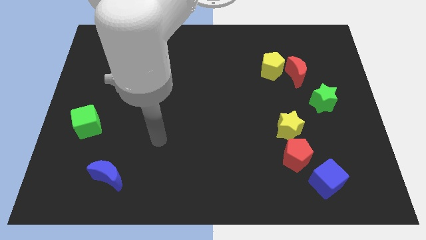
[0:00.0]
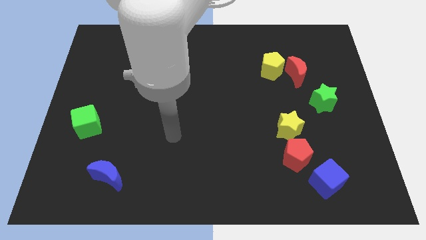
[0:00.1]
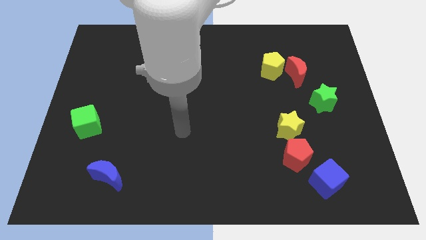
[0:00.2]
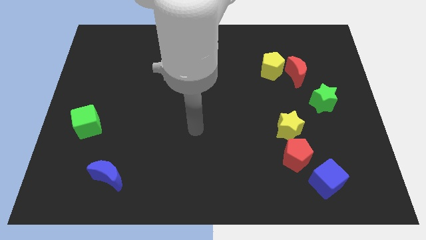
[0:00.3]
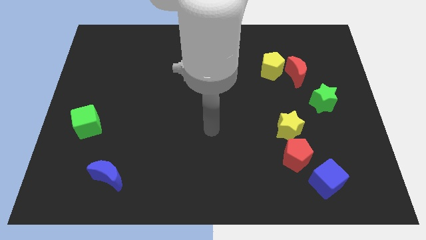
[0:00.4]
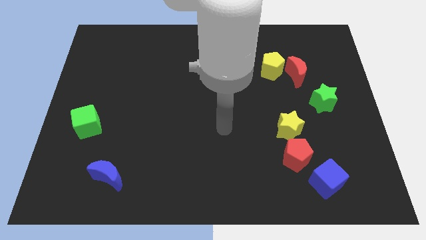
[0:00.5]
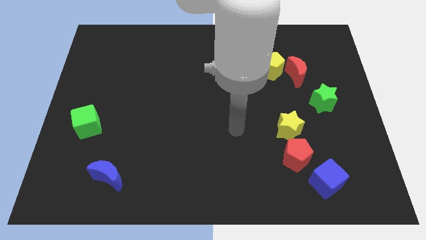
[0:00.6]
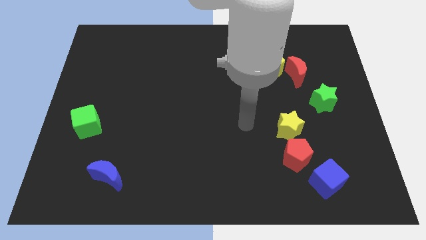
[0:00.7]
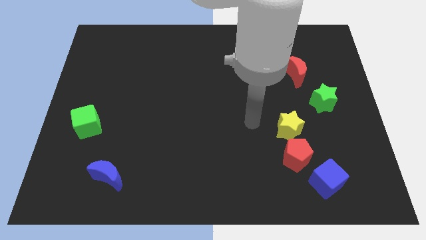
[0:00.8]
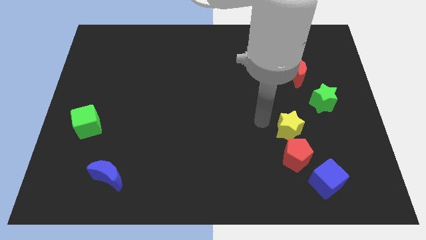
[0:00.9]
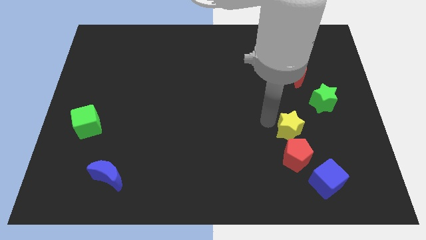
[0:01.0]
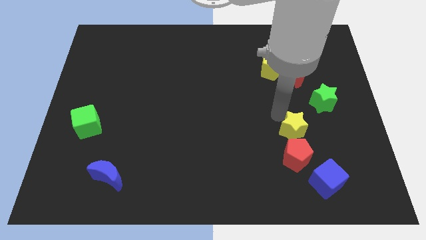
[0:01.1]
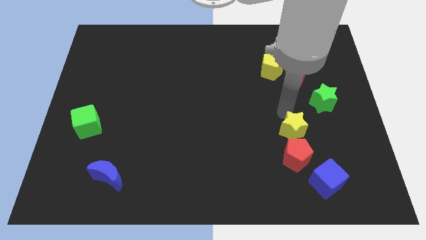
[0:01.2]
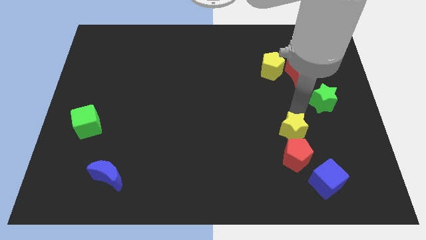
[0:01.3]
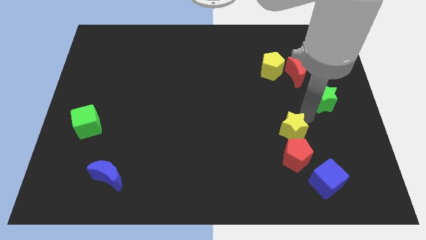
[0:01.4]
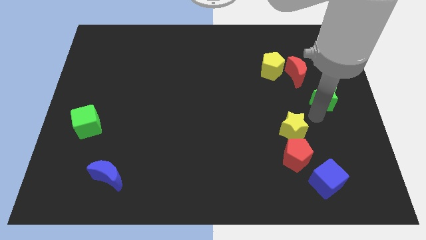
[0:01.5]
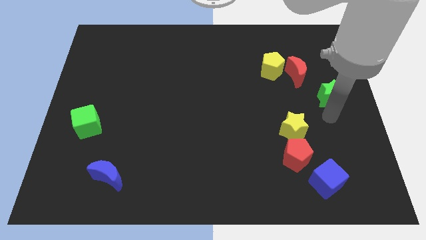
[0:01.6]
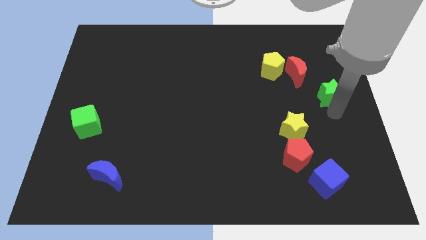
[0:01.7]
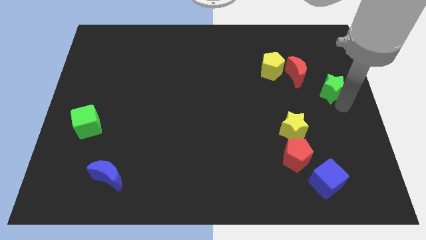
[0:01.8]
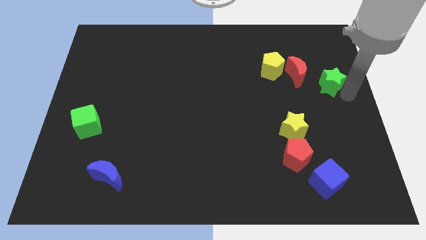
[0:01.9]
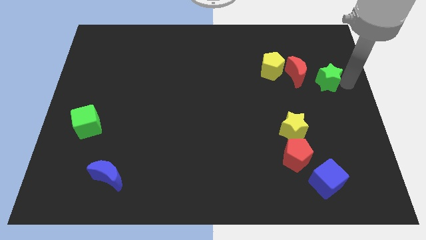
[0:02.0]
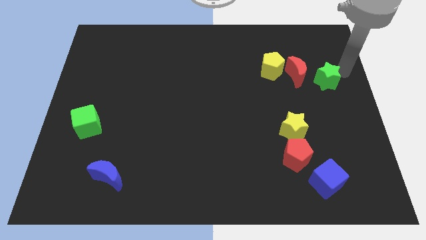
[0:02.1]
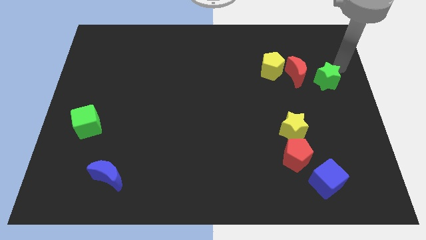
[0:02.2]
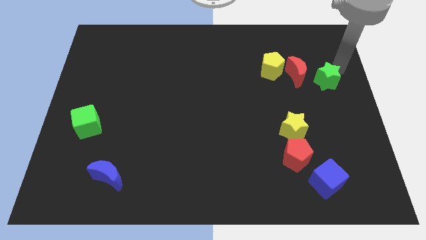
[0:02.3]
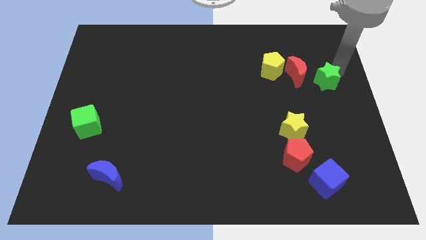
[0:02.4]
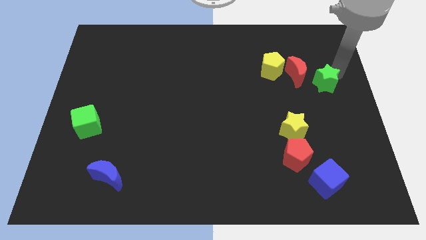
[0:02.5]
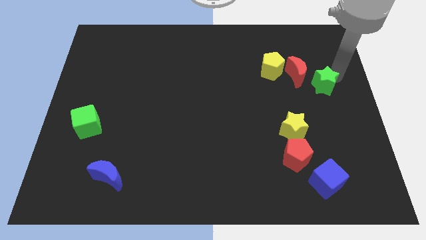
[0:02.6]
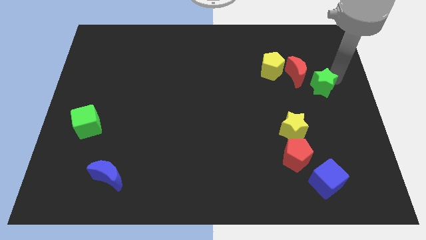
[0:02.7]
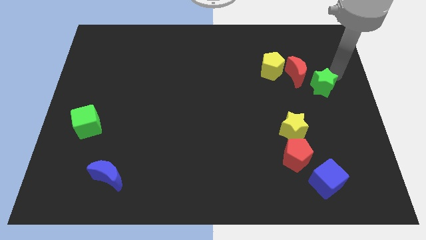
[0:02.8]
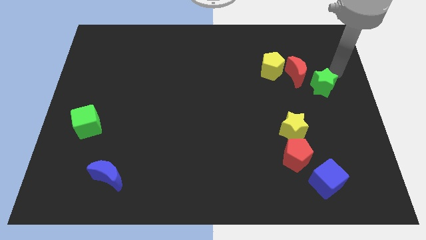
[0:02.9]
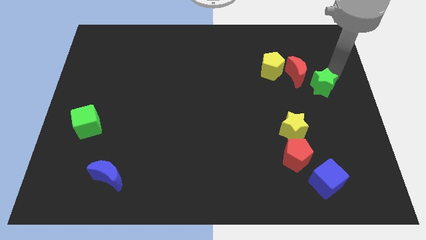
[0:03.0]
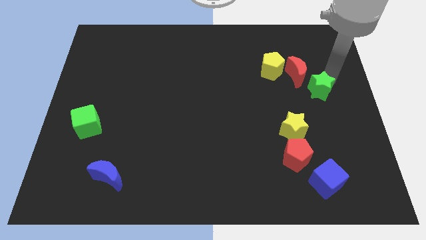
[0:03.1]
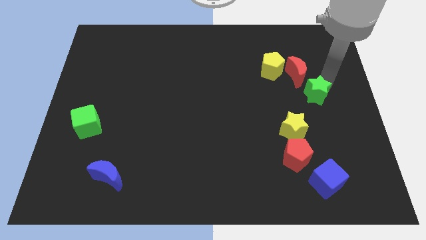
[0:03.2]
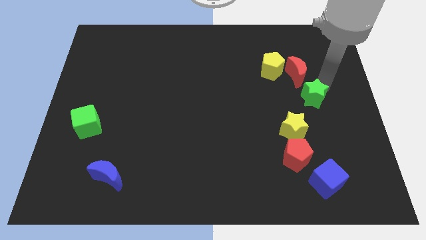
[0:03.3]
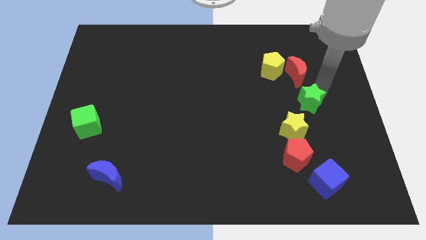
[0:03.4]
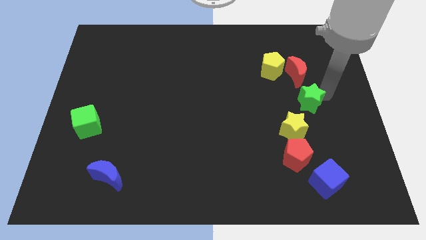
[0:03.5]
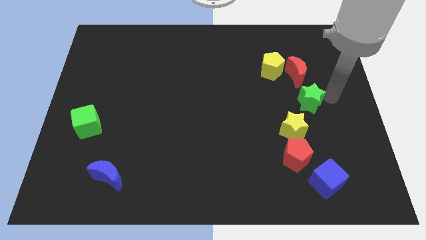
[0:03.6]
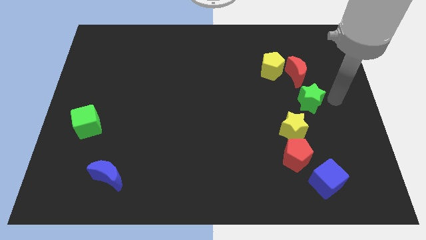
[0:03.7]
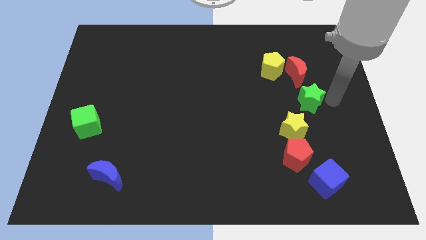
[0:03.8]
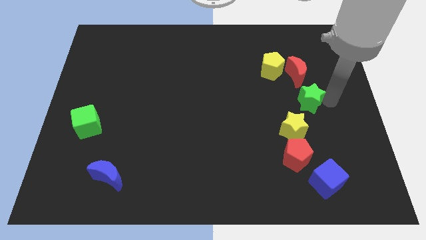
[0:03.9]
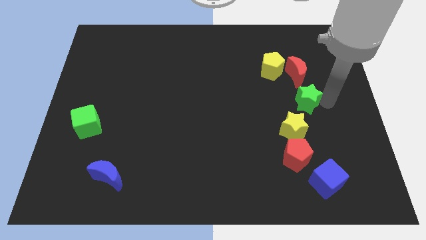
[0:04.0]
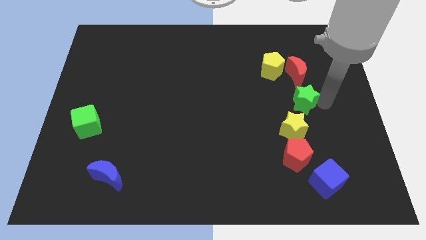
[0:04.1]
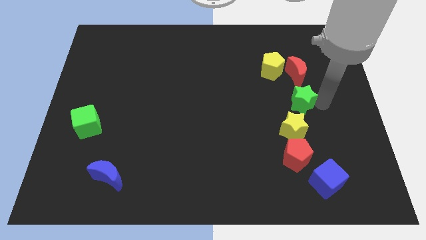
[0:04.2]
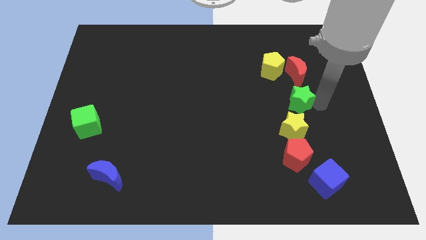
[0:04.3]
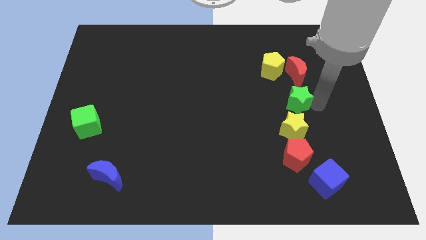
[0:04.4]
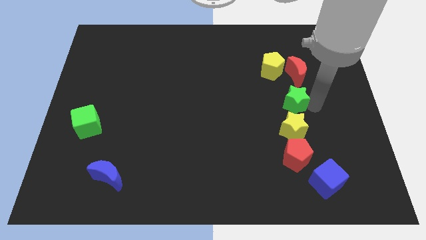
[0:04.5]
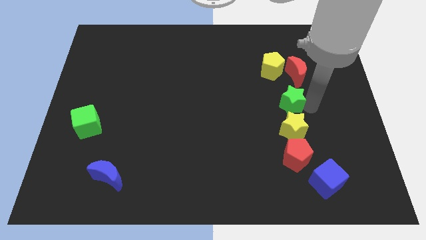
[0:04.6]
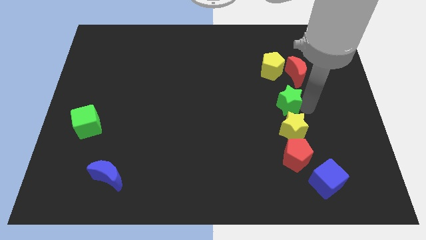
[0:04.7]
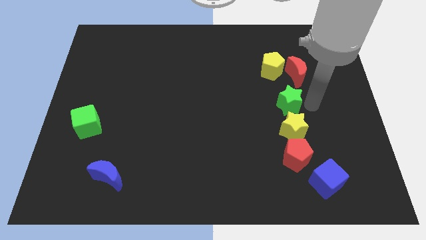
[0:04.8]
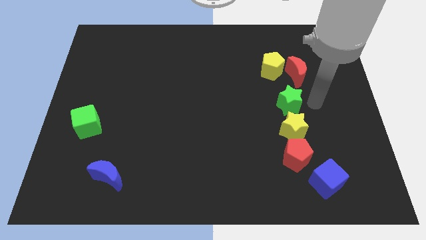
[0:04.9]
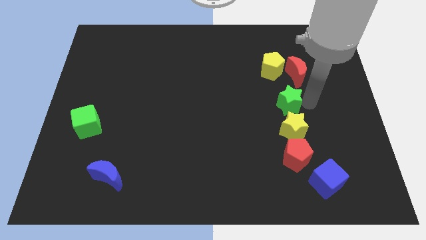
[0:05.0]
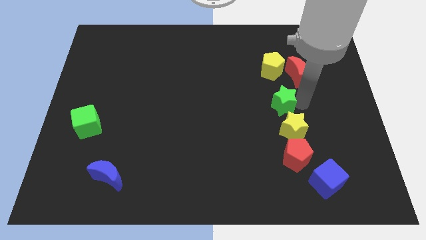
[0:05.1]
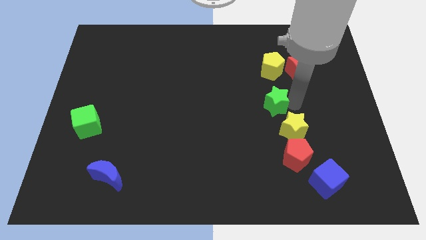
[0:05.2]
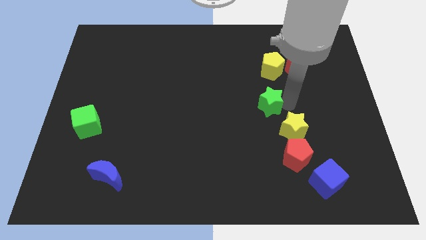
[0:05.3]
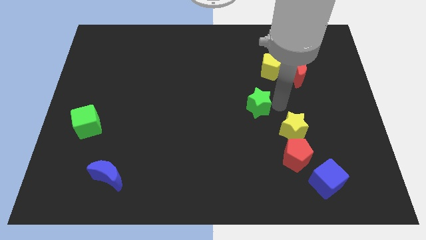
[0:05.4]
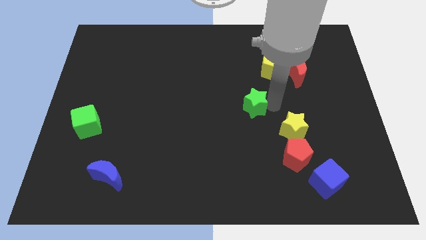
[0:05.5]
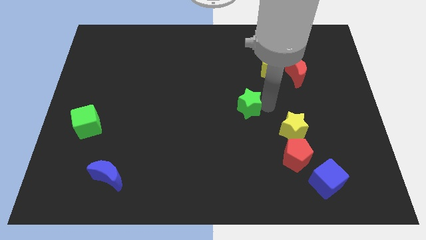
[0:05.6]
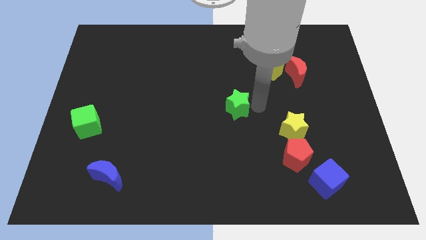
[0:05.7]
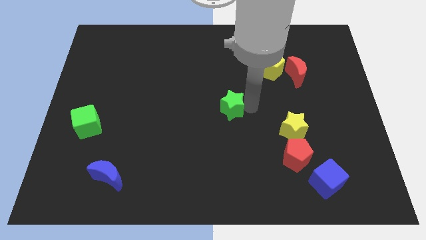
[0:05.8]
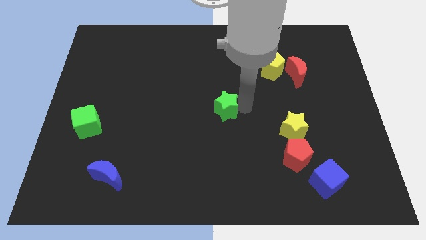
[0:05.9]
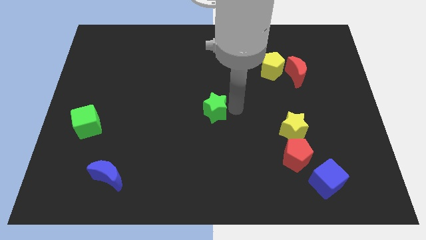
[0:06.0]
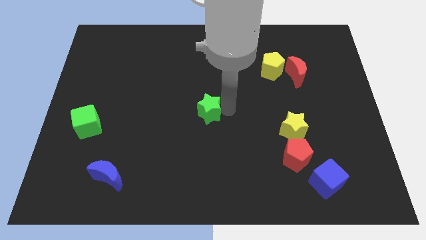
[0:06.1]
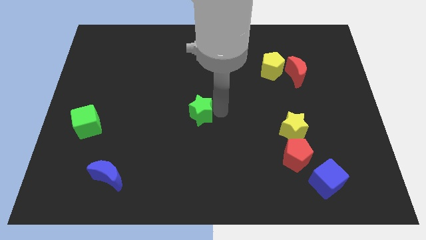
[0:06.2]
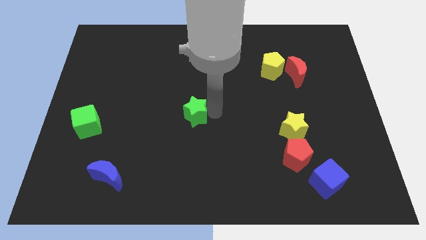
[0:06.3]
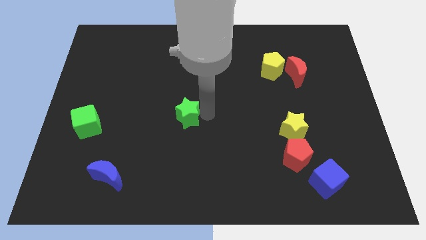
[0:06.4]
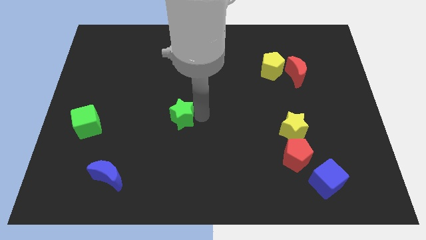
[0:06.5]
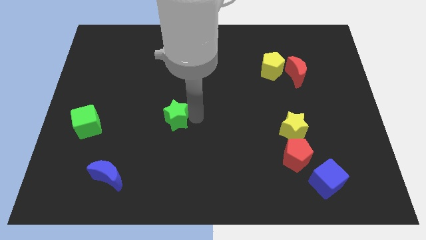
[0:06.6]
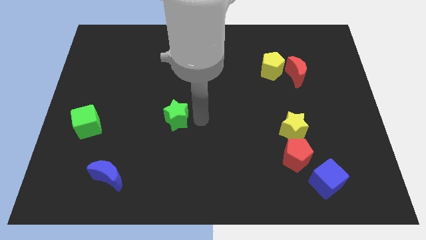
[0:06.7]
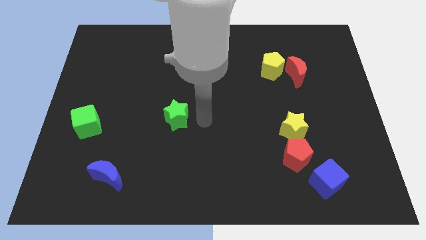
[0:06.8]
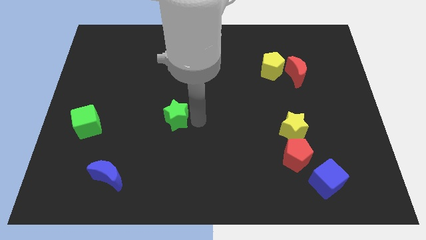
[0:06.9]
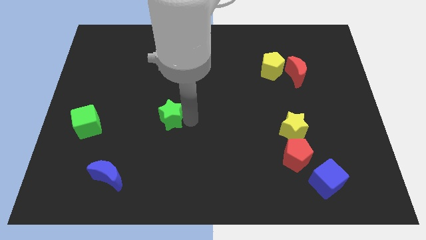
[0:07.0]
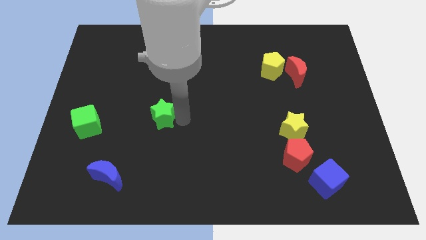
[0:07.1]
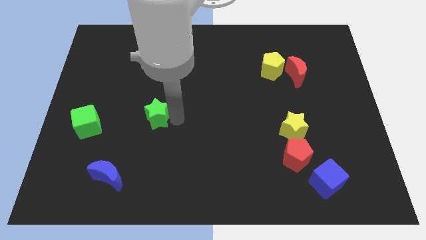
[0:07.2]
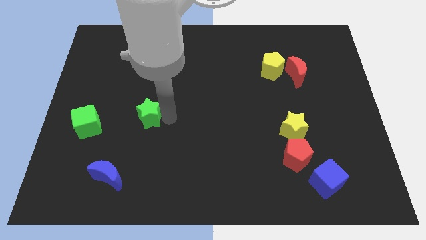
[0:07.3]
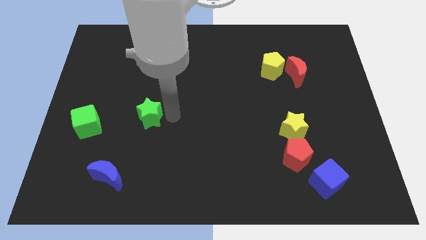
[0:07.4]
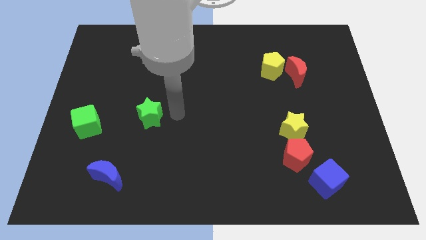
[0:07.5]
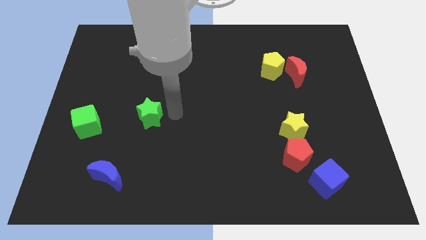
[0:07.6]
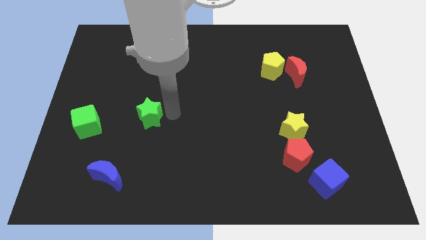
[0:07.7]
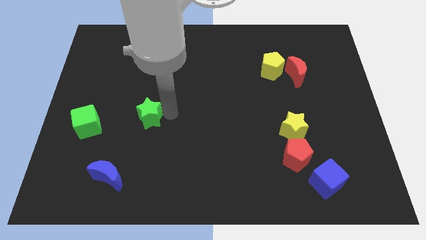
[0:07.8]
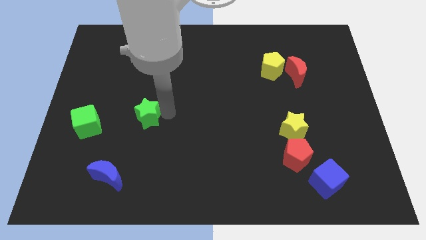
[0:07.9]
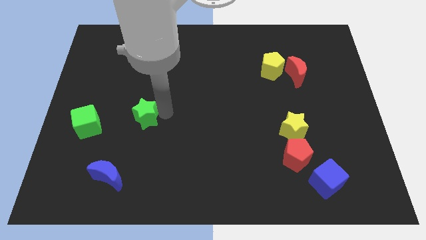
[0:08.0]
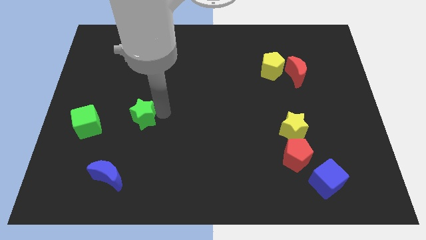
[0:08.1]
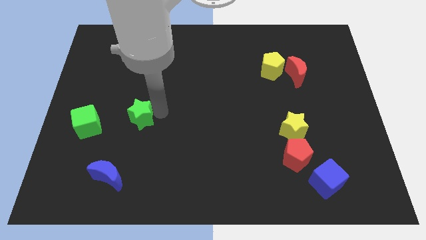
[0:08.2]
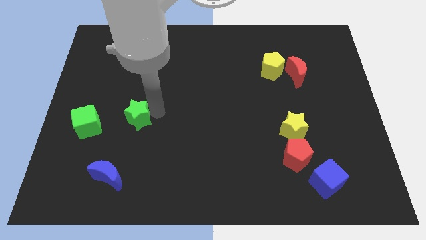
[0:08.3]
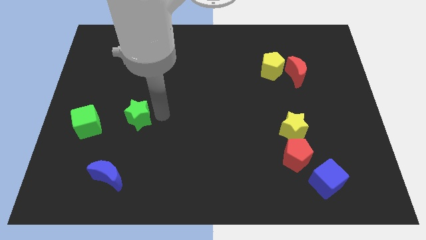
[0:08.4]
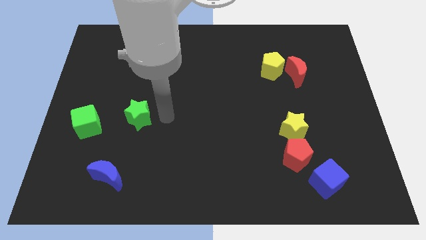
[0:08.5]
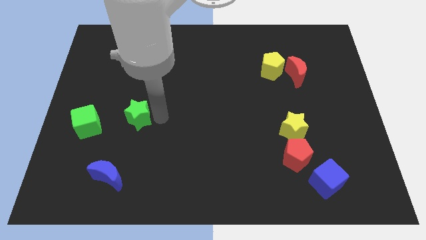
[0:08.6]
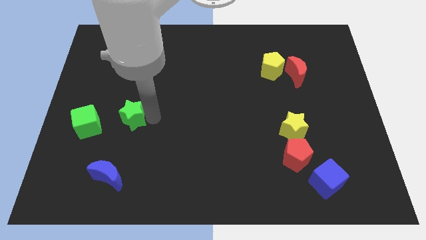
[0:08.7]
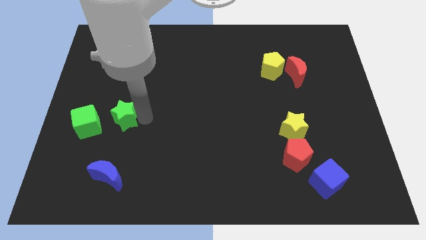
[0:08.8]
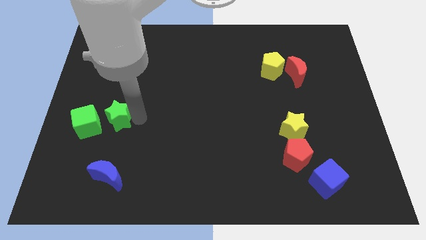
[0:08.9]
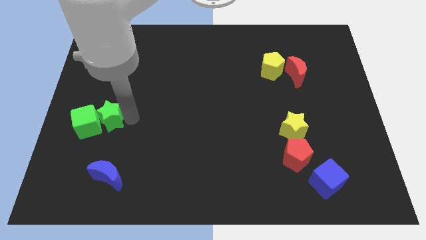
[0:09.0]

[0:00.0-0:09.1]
move the green star close to the green cube
